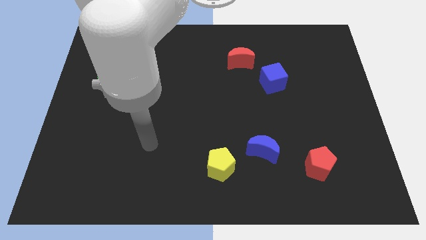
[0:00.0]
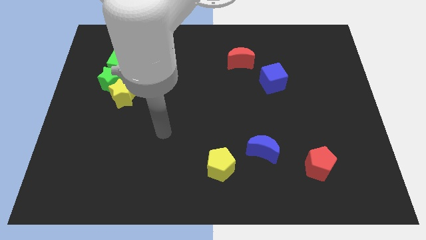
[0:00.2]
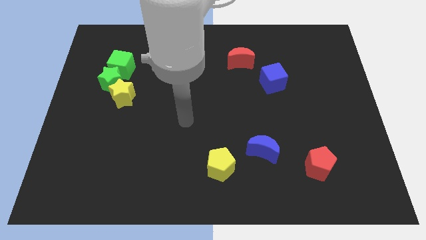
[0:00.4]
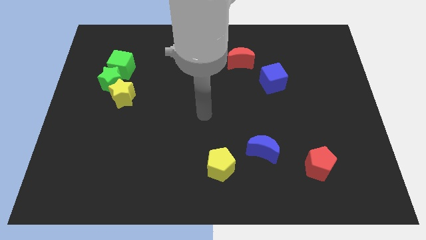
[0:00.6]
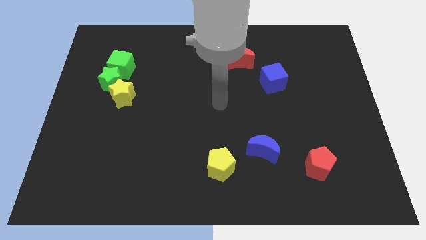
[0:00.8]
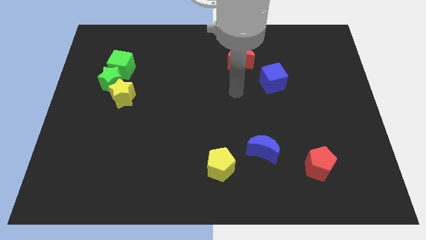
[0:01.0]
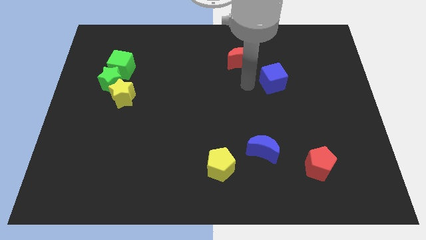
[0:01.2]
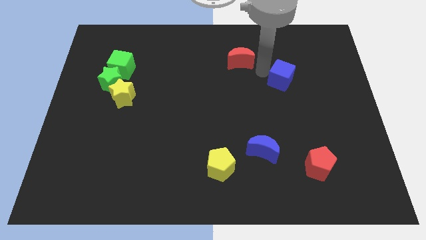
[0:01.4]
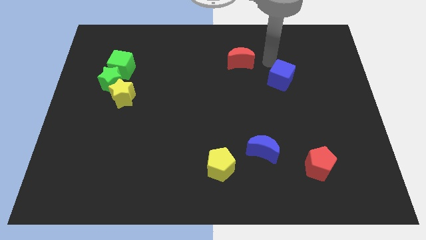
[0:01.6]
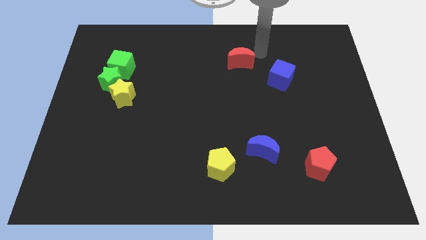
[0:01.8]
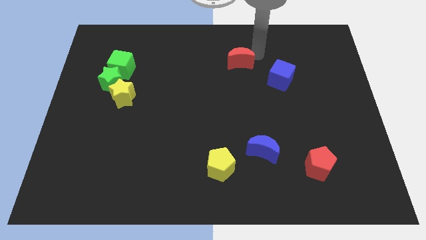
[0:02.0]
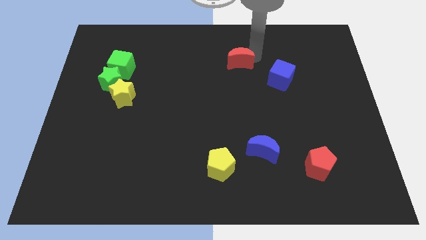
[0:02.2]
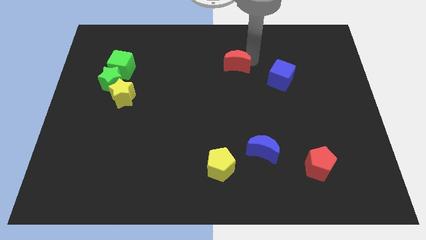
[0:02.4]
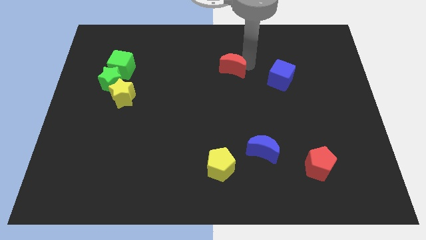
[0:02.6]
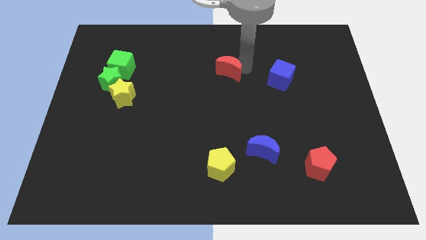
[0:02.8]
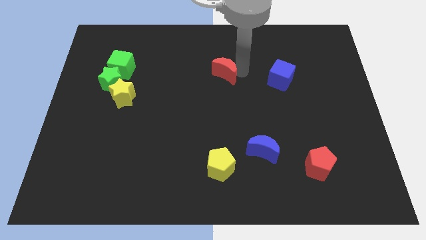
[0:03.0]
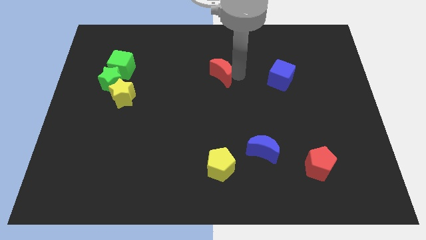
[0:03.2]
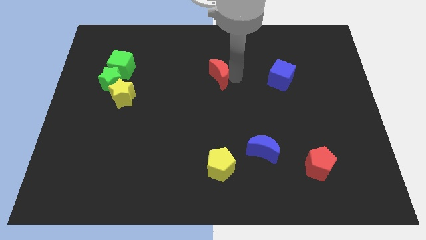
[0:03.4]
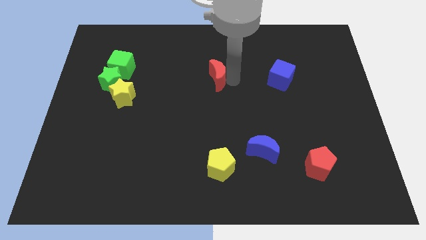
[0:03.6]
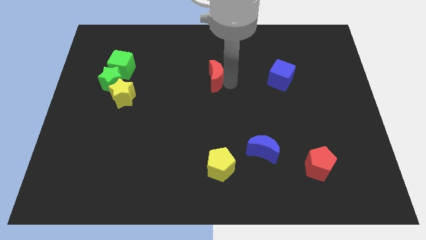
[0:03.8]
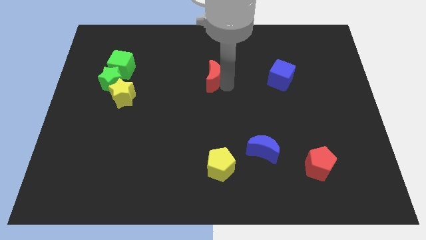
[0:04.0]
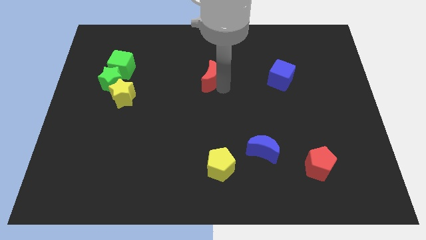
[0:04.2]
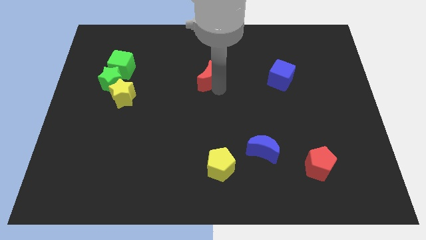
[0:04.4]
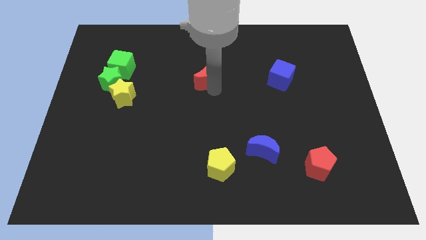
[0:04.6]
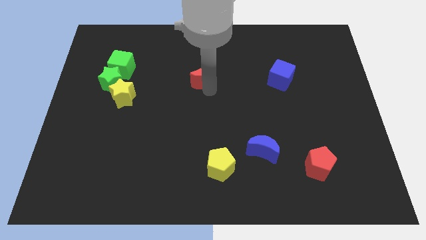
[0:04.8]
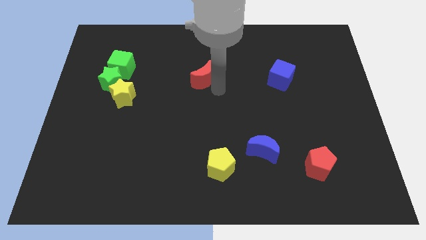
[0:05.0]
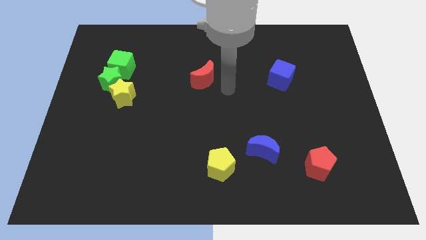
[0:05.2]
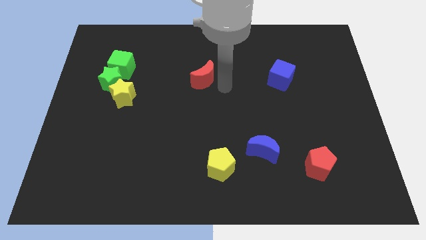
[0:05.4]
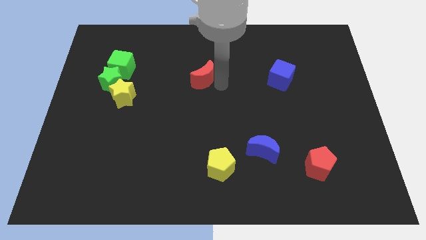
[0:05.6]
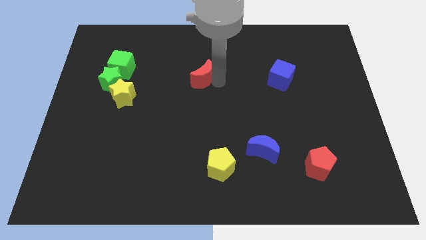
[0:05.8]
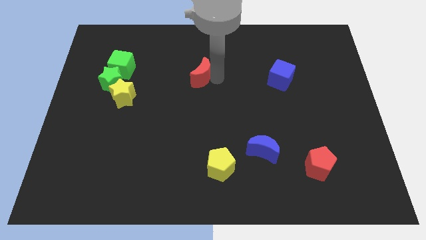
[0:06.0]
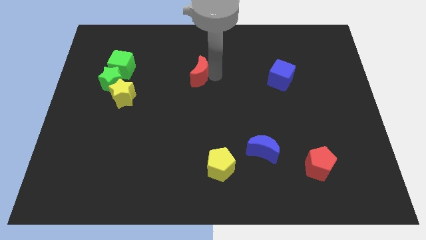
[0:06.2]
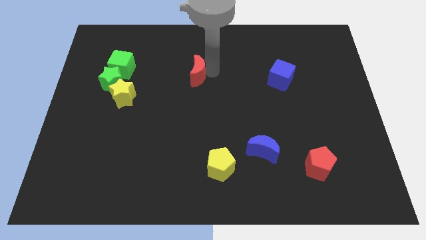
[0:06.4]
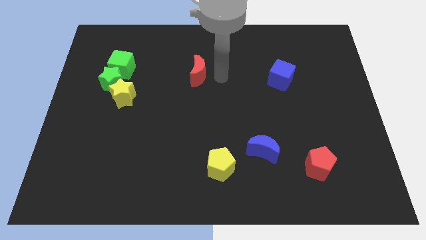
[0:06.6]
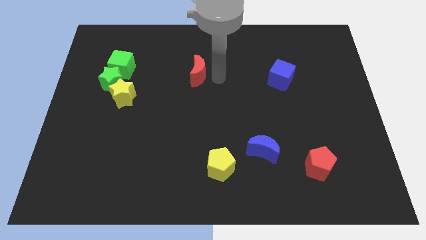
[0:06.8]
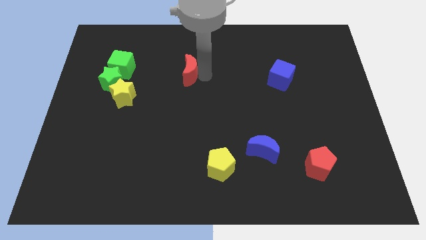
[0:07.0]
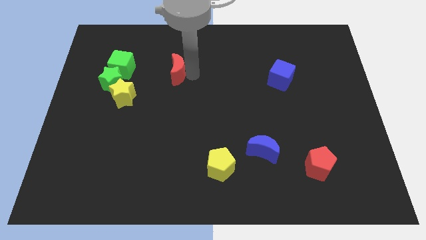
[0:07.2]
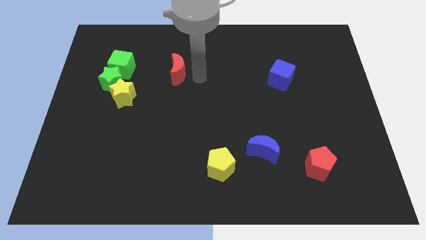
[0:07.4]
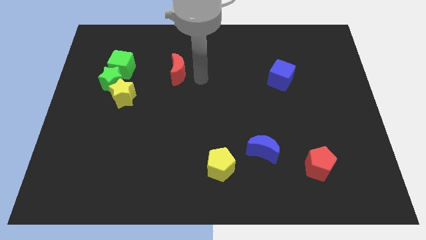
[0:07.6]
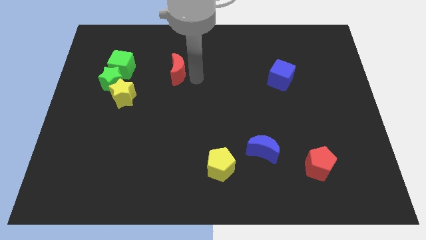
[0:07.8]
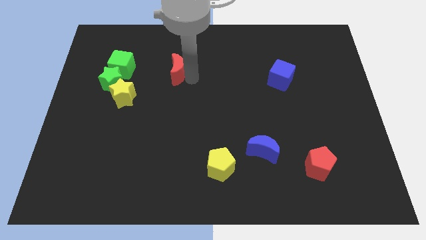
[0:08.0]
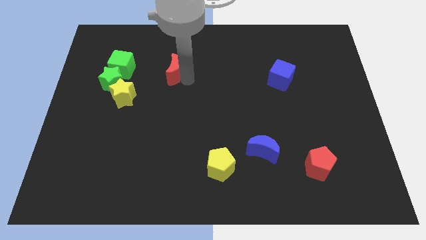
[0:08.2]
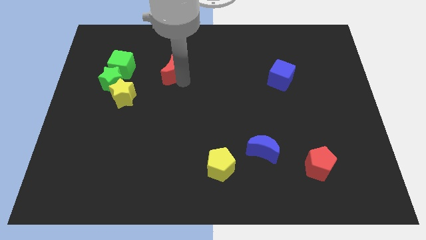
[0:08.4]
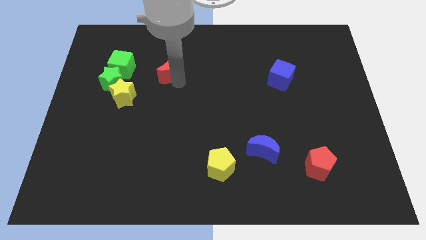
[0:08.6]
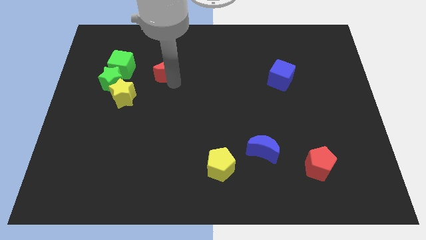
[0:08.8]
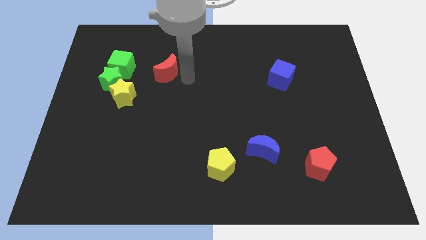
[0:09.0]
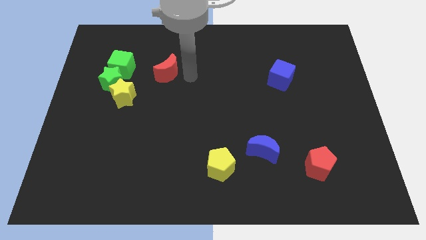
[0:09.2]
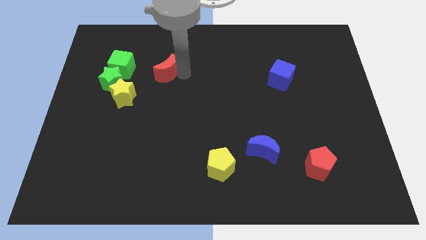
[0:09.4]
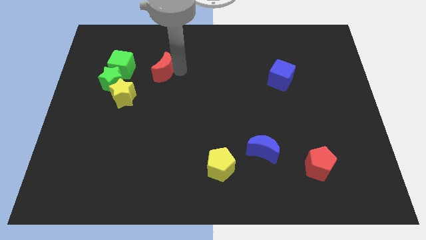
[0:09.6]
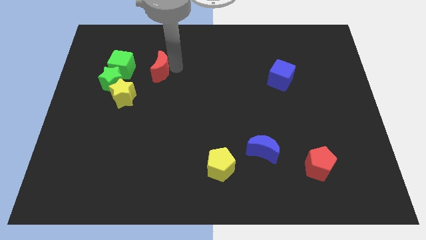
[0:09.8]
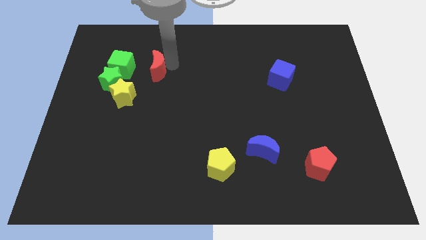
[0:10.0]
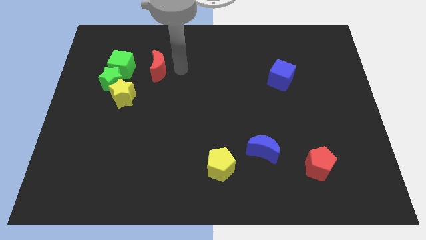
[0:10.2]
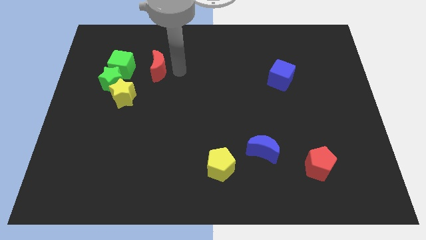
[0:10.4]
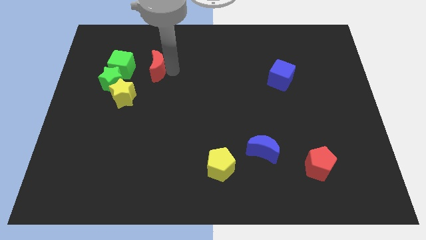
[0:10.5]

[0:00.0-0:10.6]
push the red moon to the top right of the green star

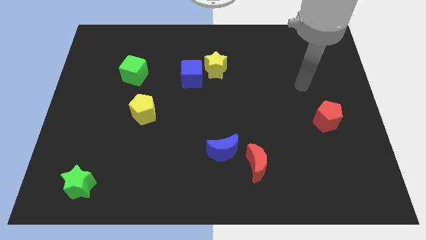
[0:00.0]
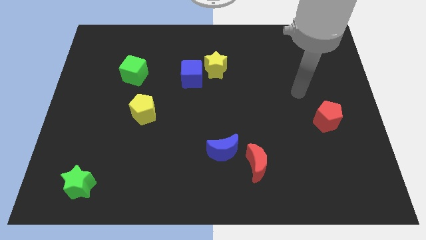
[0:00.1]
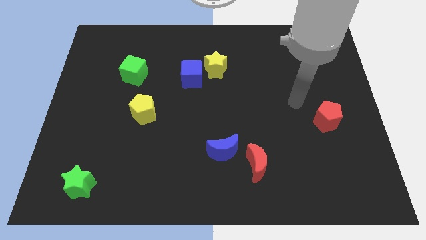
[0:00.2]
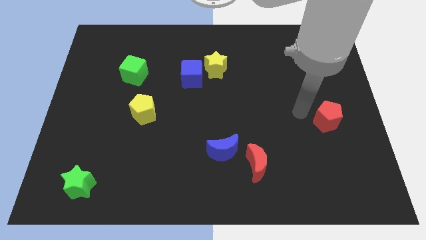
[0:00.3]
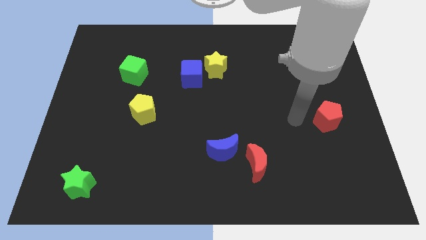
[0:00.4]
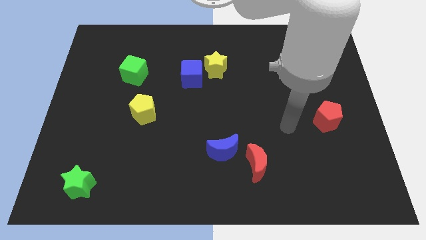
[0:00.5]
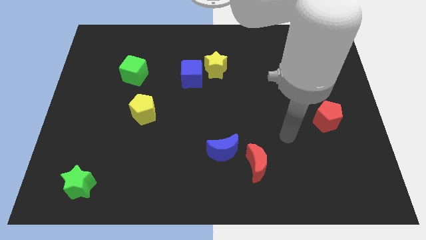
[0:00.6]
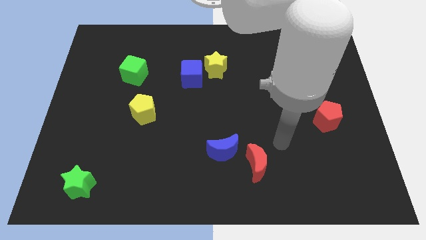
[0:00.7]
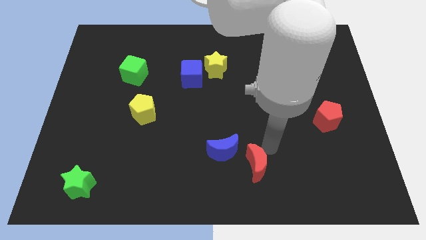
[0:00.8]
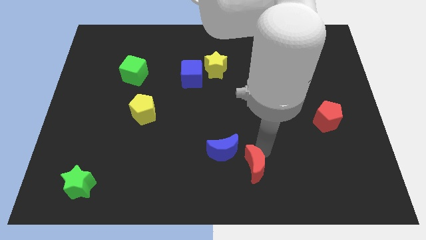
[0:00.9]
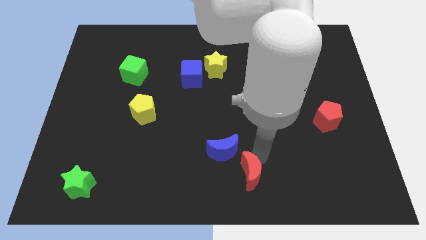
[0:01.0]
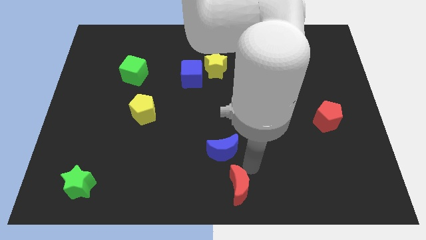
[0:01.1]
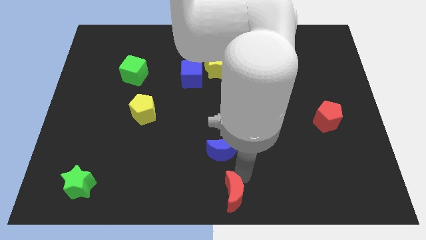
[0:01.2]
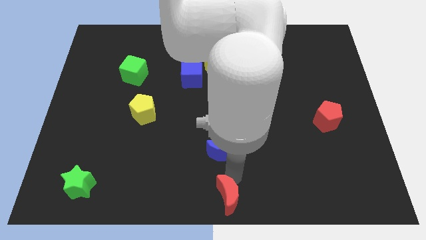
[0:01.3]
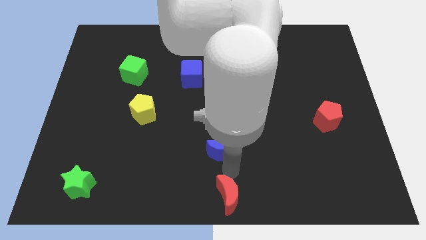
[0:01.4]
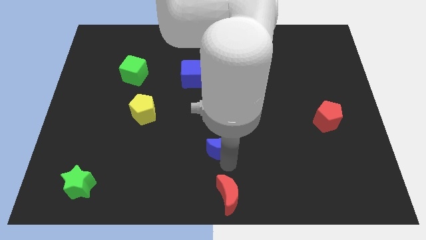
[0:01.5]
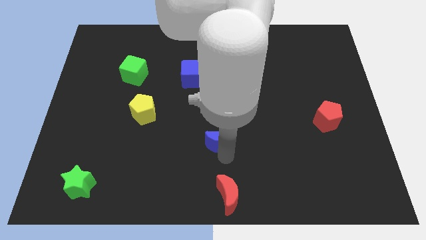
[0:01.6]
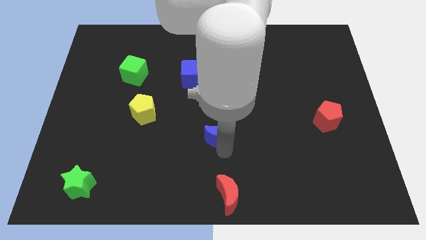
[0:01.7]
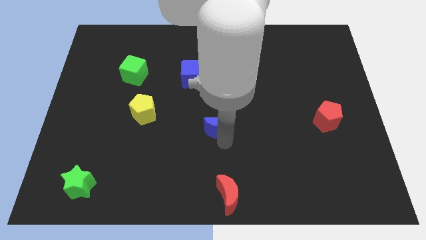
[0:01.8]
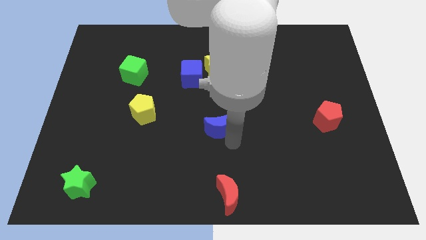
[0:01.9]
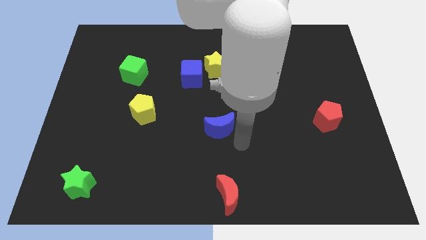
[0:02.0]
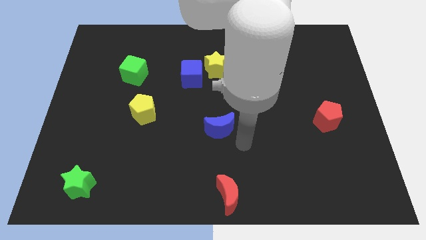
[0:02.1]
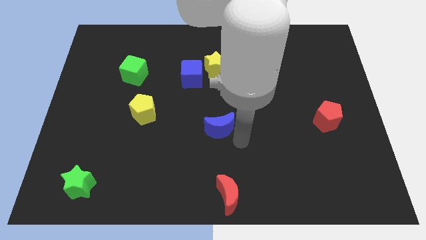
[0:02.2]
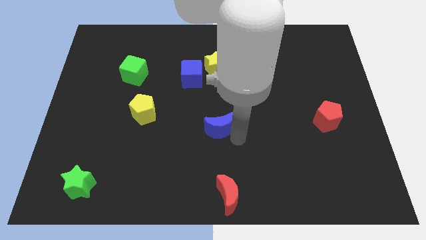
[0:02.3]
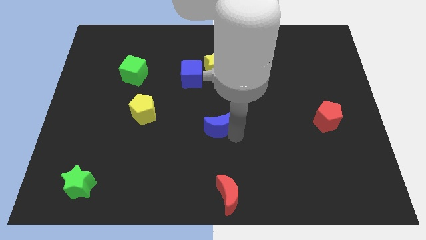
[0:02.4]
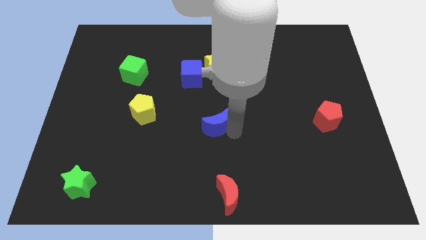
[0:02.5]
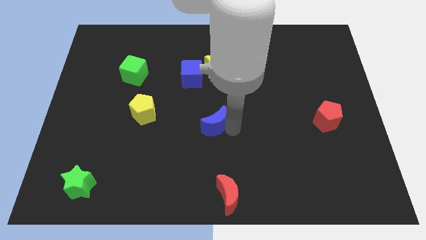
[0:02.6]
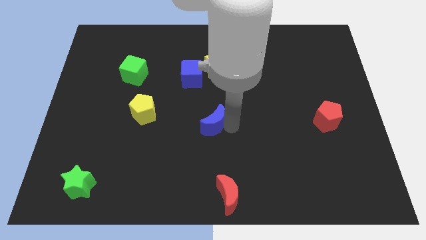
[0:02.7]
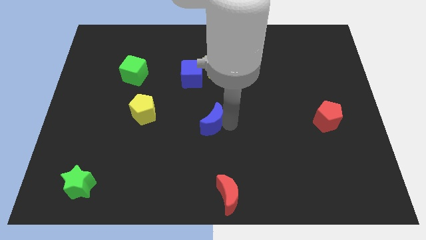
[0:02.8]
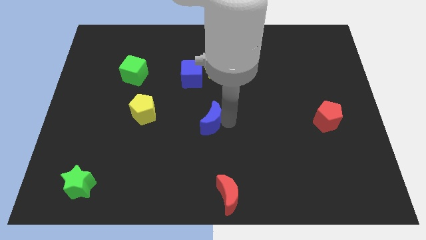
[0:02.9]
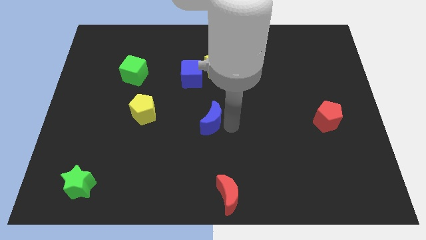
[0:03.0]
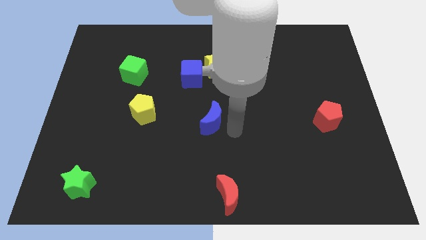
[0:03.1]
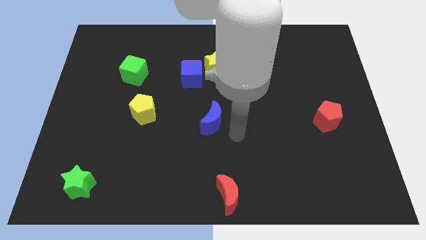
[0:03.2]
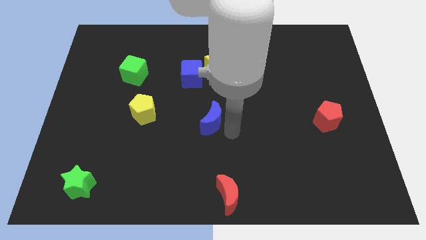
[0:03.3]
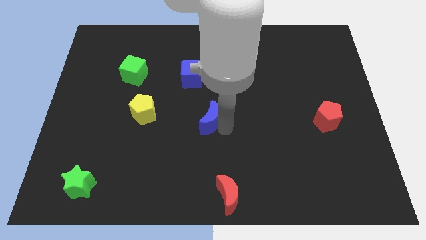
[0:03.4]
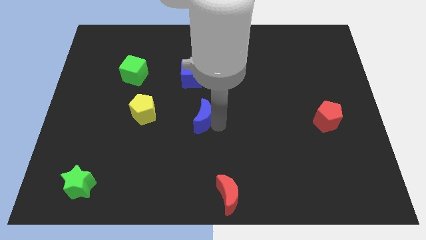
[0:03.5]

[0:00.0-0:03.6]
push the blue moon to the bottom of the blue cube
